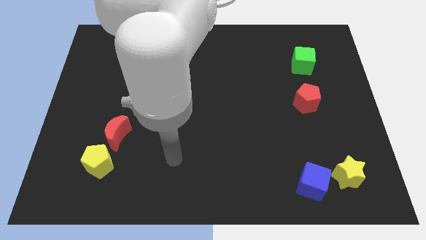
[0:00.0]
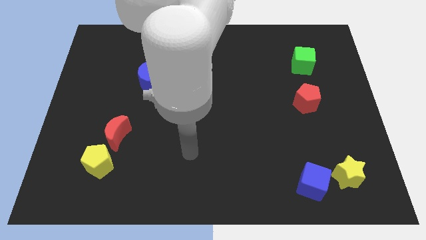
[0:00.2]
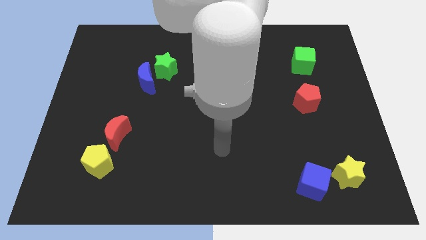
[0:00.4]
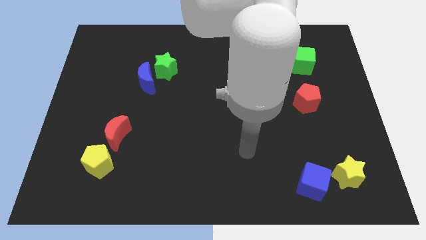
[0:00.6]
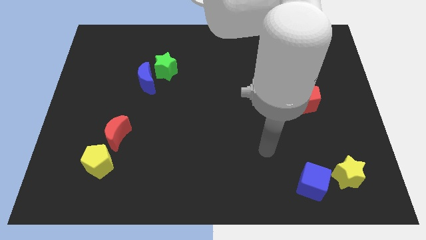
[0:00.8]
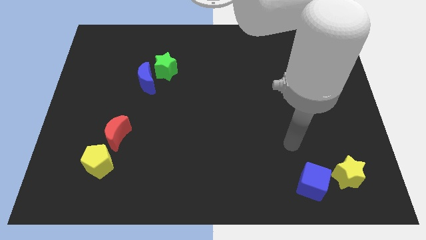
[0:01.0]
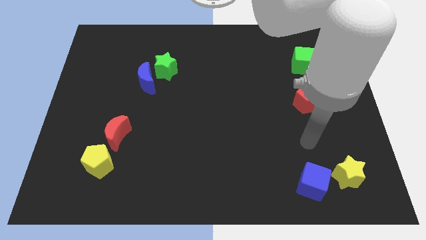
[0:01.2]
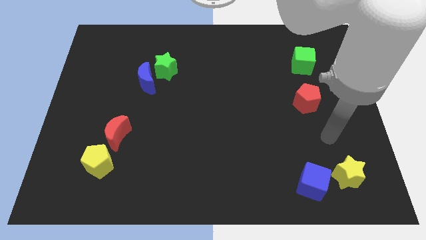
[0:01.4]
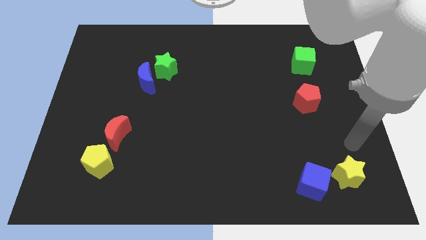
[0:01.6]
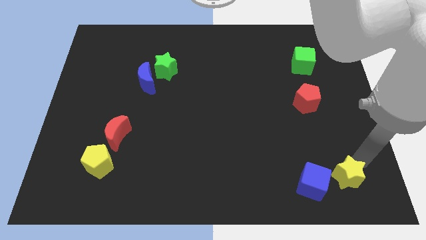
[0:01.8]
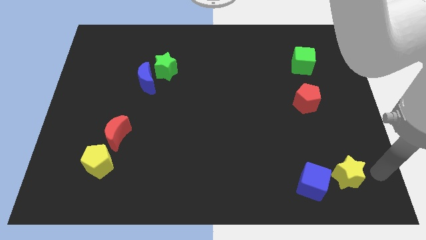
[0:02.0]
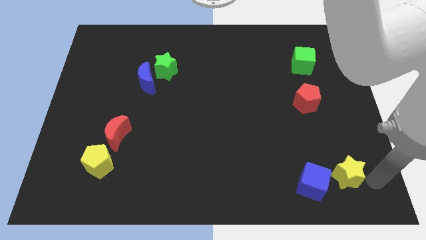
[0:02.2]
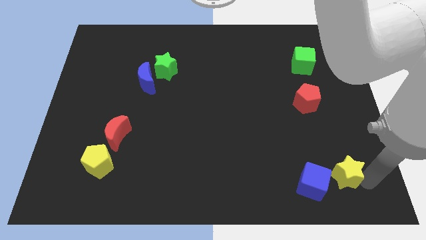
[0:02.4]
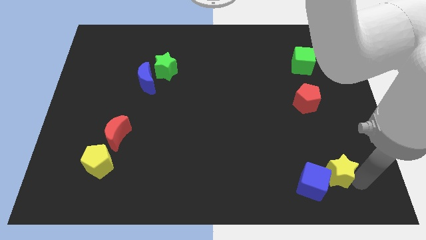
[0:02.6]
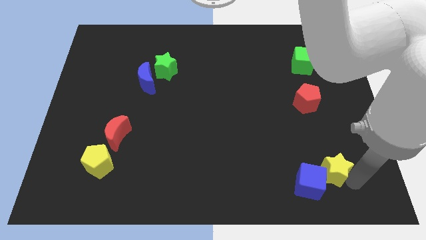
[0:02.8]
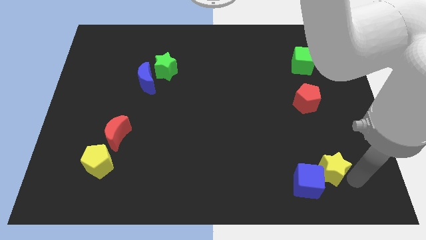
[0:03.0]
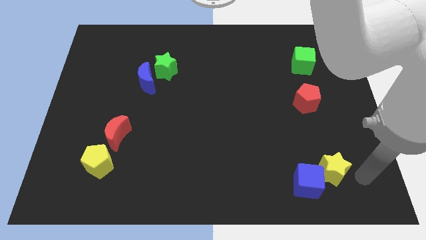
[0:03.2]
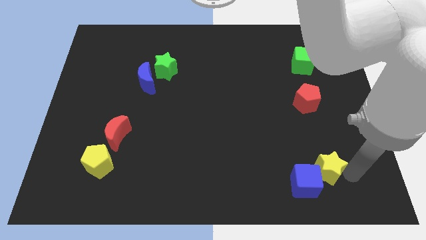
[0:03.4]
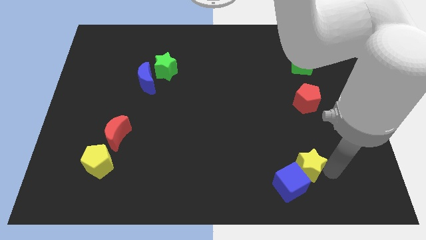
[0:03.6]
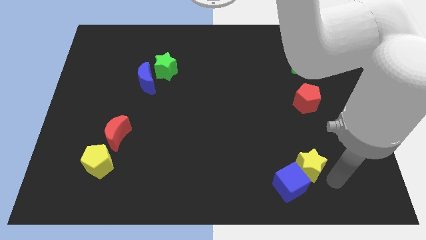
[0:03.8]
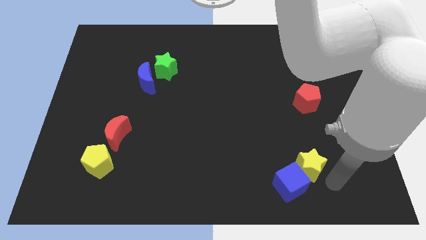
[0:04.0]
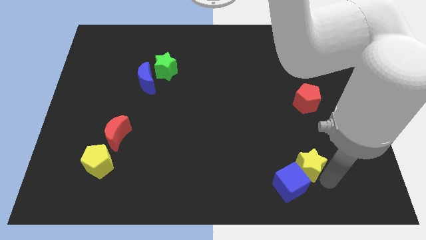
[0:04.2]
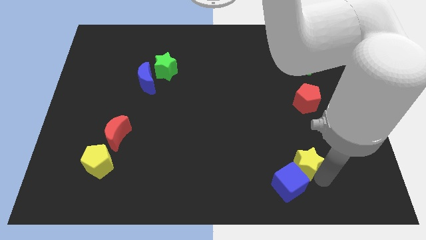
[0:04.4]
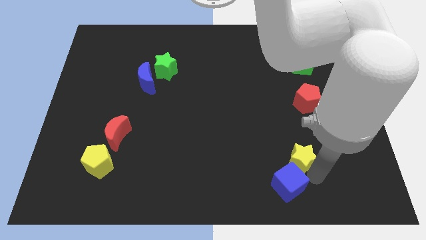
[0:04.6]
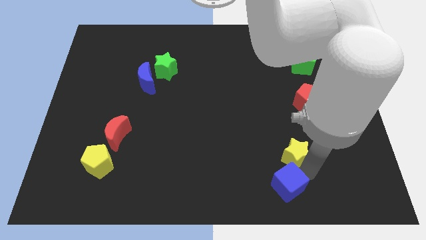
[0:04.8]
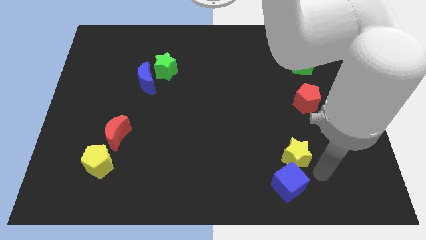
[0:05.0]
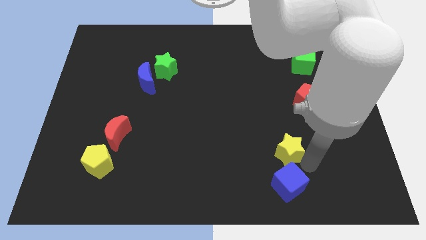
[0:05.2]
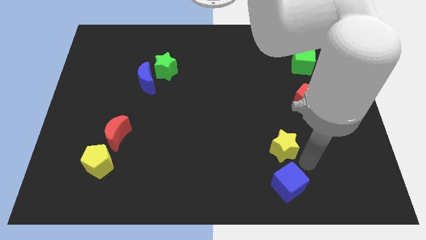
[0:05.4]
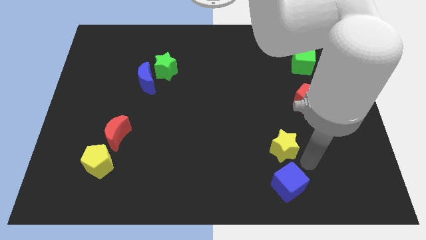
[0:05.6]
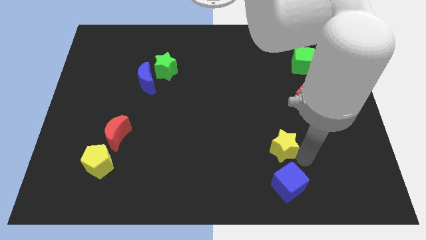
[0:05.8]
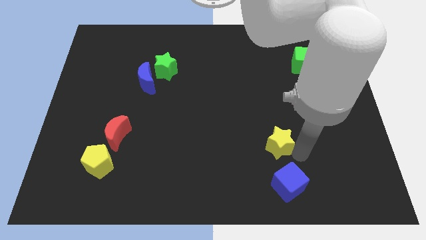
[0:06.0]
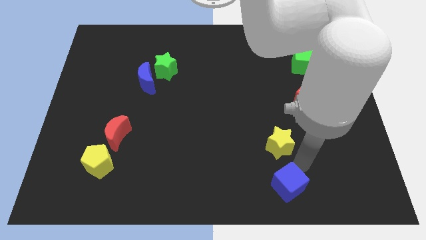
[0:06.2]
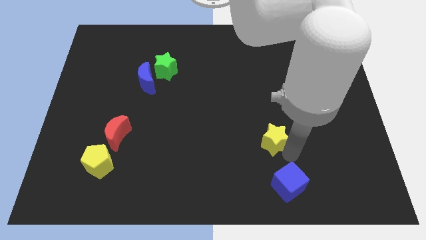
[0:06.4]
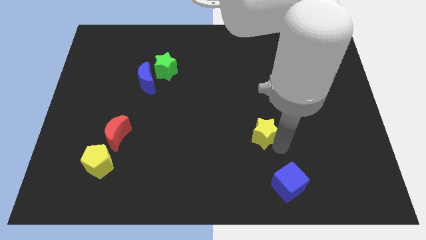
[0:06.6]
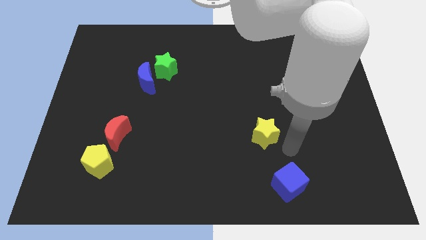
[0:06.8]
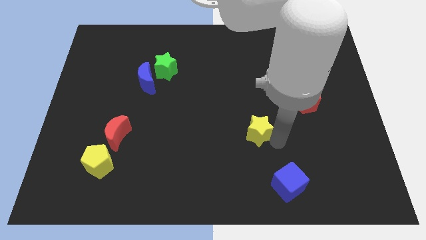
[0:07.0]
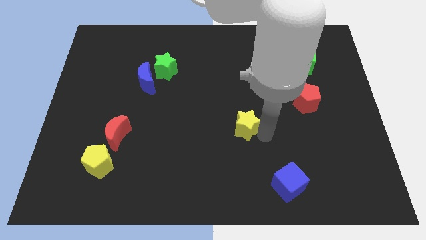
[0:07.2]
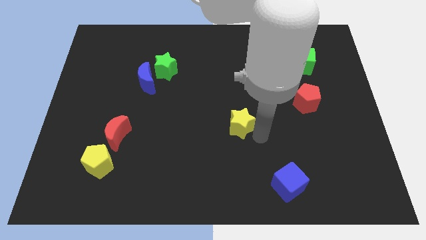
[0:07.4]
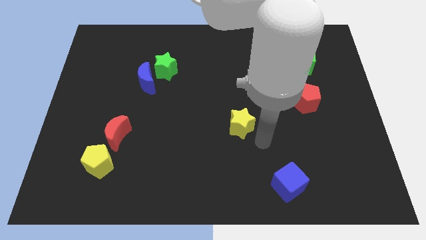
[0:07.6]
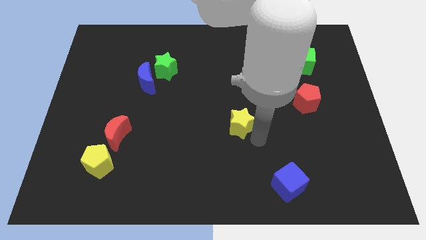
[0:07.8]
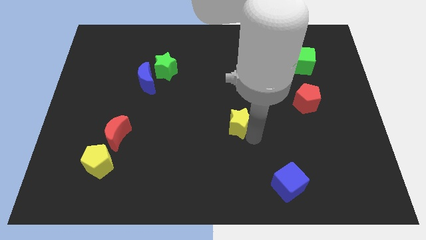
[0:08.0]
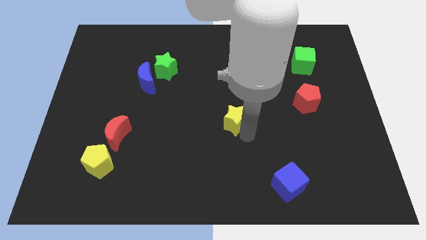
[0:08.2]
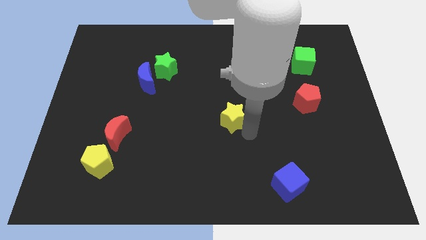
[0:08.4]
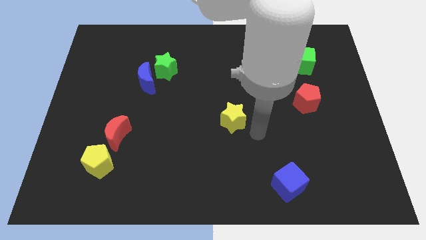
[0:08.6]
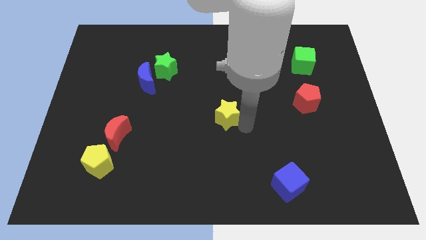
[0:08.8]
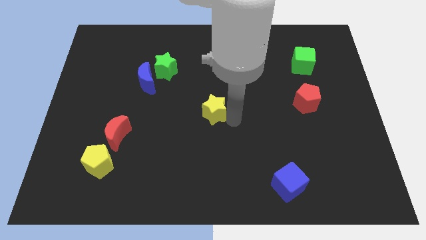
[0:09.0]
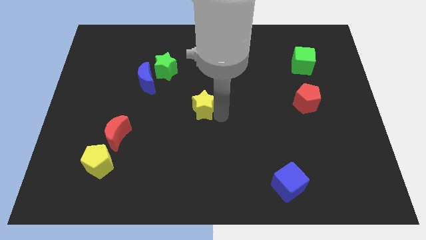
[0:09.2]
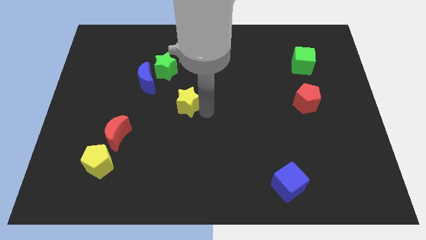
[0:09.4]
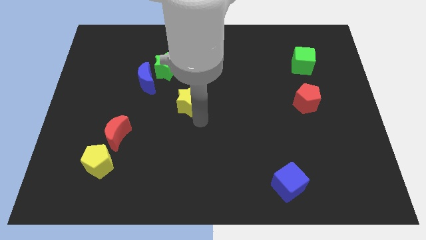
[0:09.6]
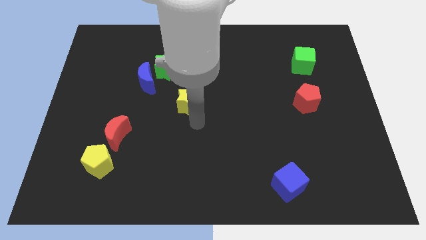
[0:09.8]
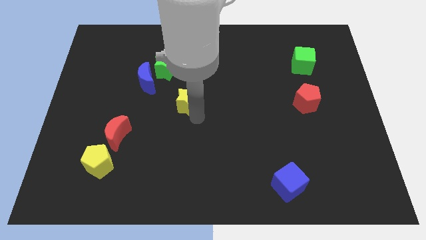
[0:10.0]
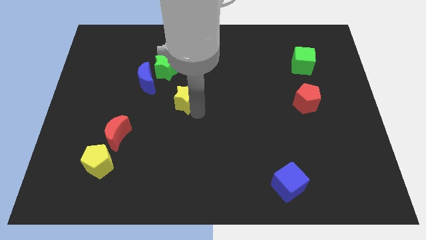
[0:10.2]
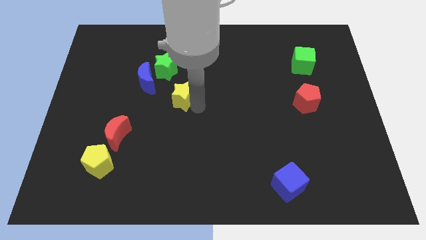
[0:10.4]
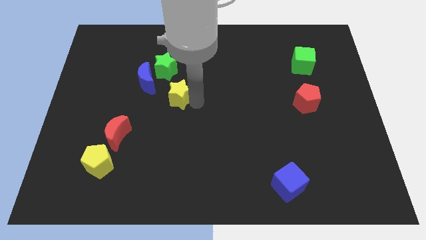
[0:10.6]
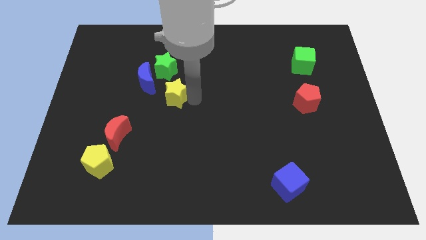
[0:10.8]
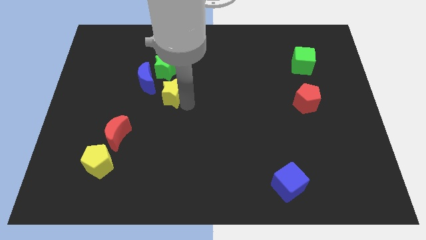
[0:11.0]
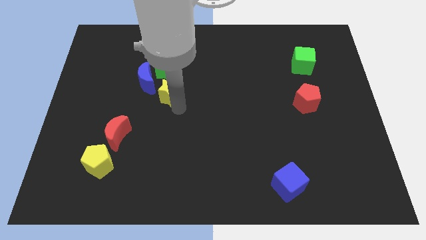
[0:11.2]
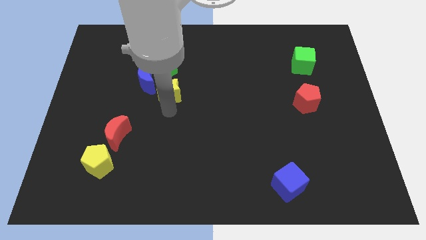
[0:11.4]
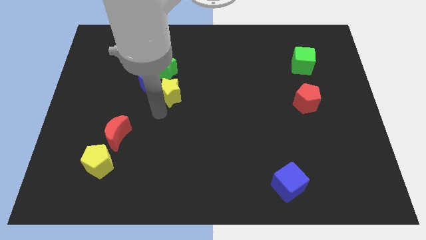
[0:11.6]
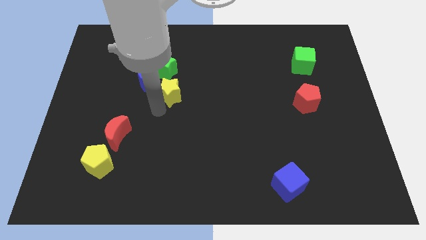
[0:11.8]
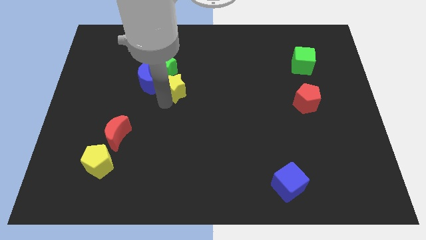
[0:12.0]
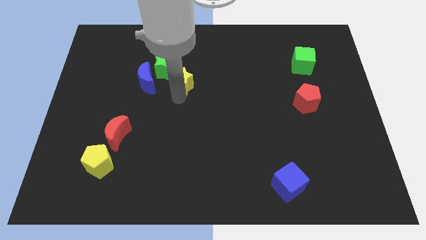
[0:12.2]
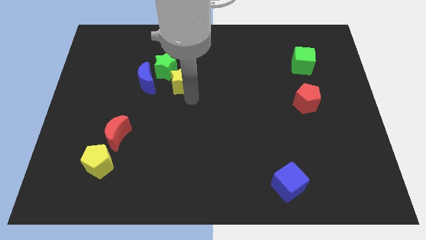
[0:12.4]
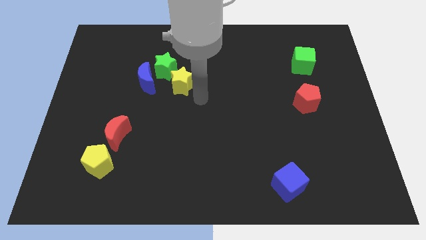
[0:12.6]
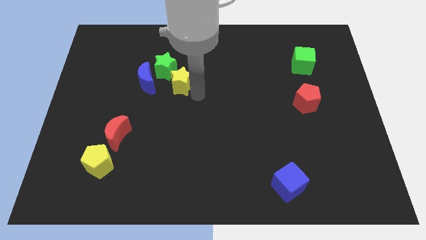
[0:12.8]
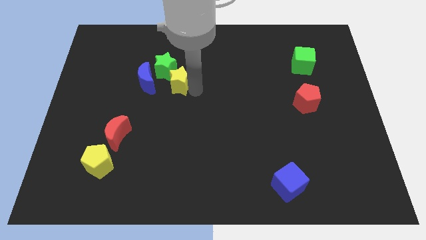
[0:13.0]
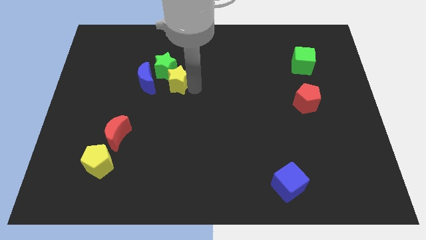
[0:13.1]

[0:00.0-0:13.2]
slide the yellow star to the green star
